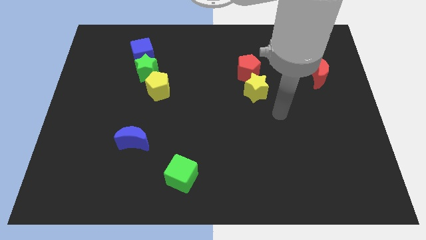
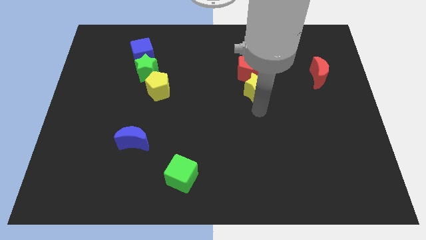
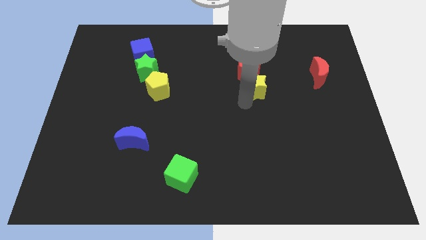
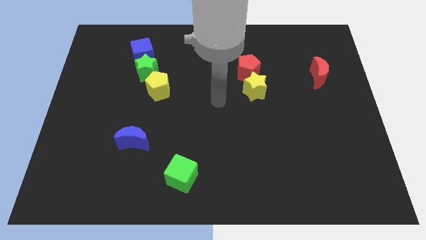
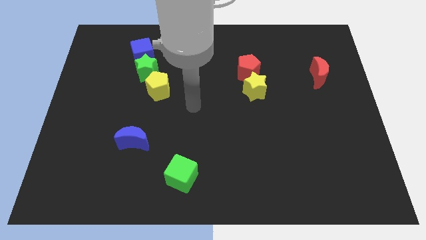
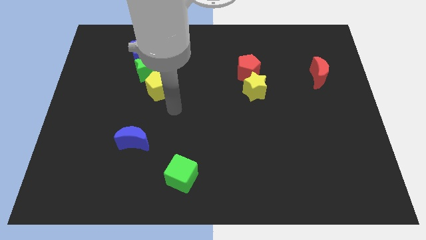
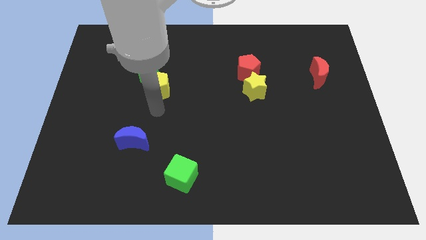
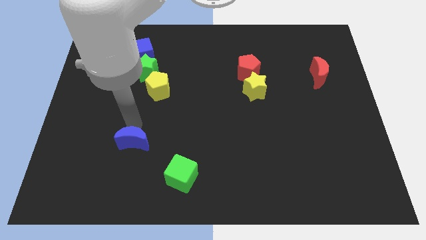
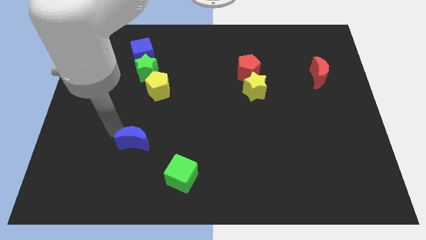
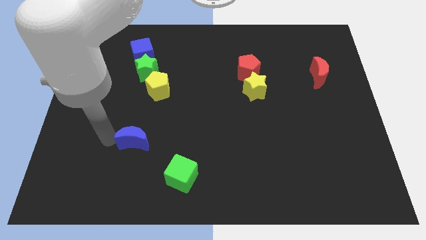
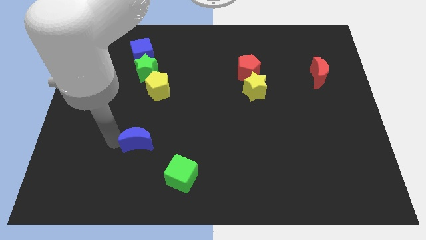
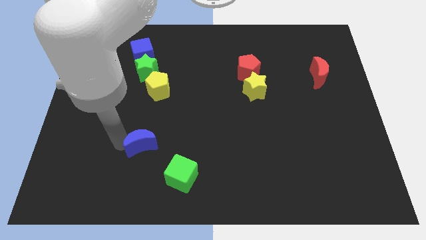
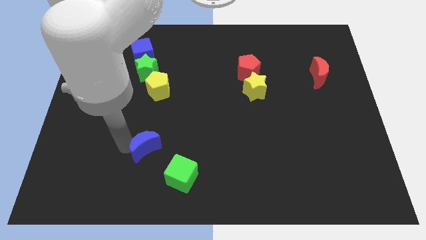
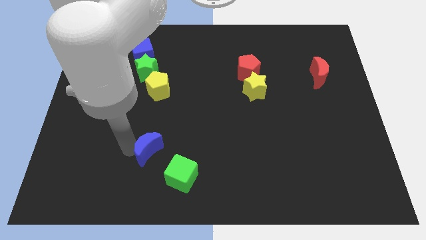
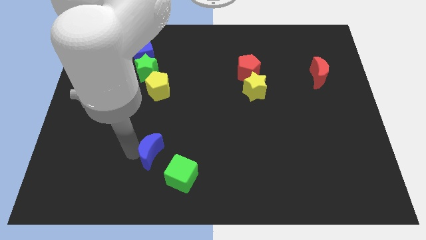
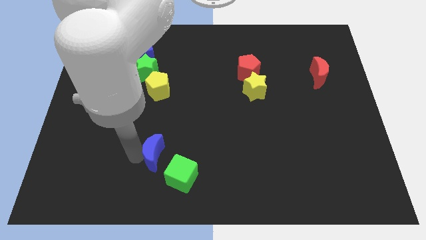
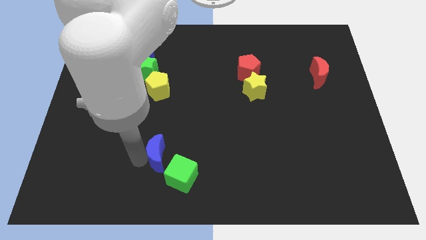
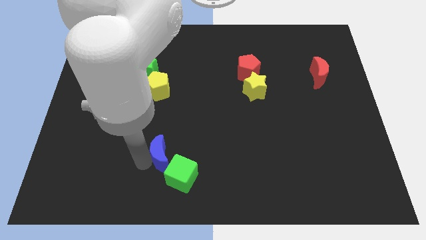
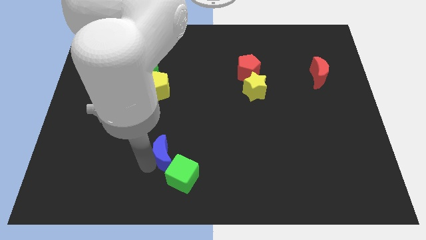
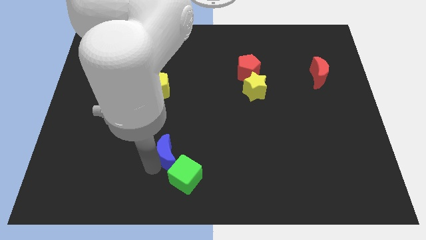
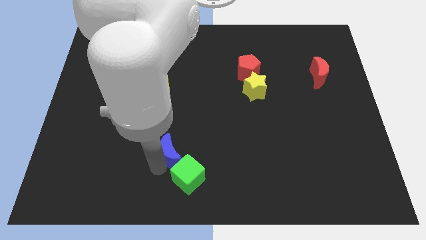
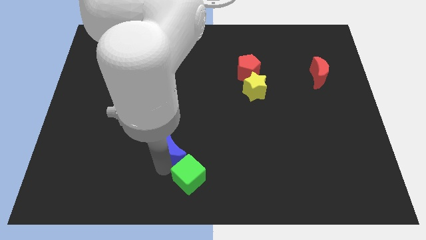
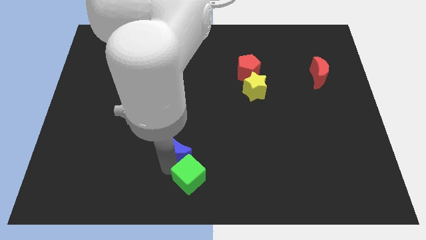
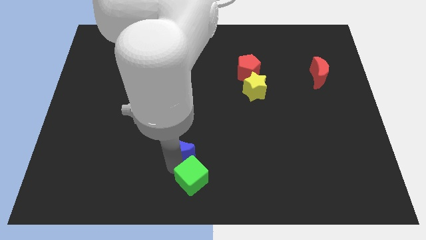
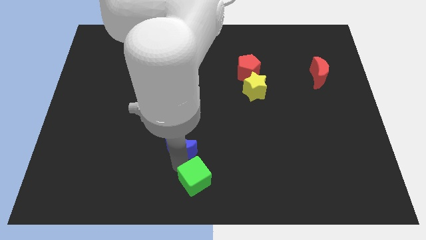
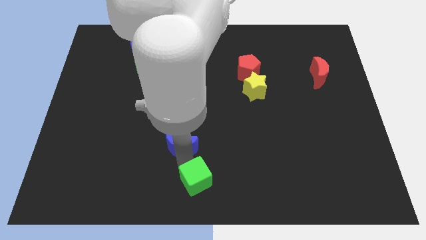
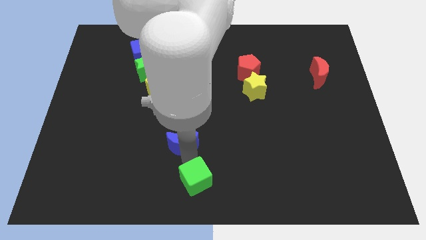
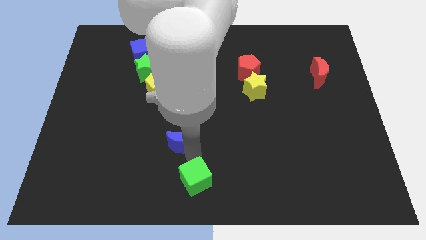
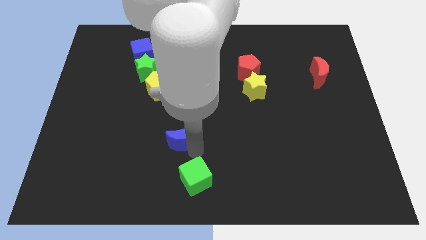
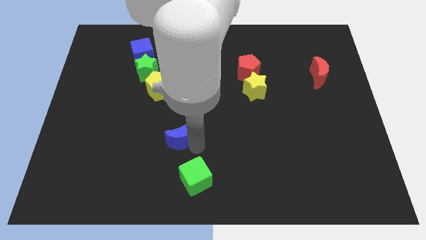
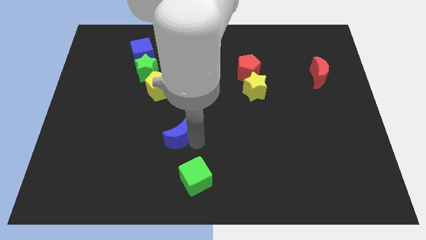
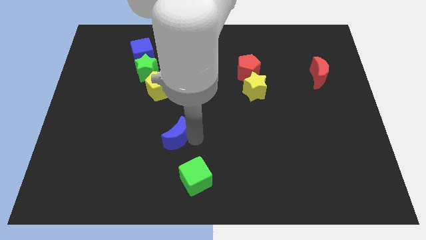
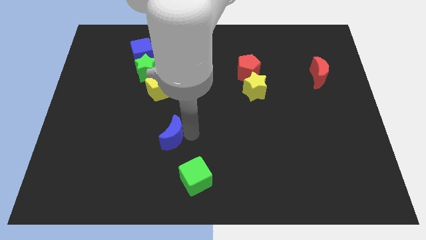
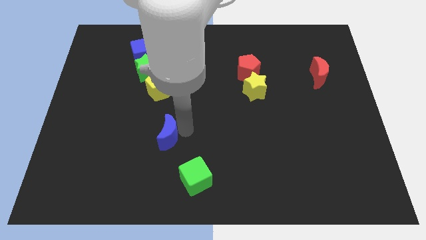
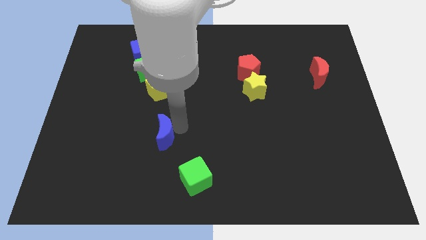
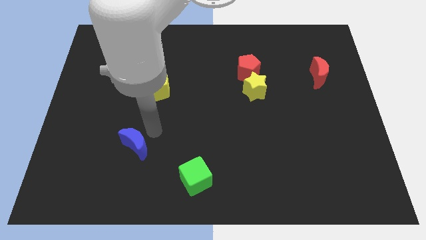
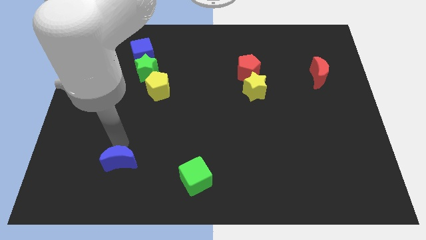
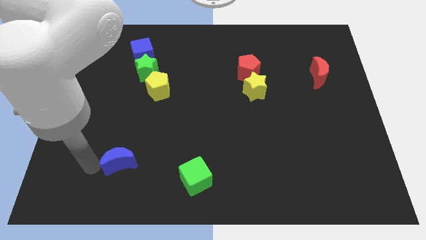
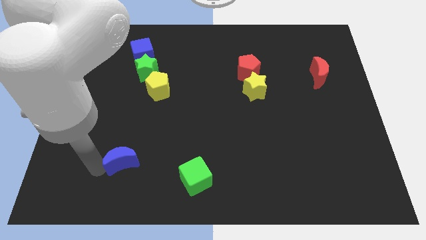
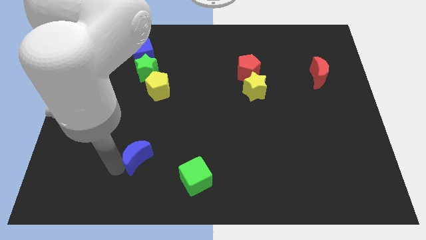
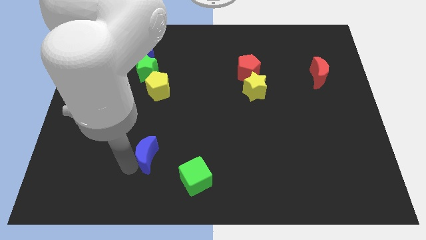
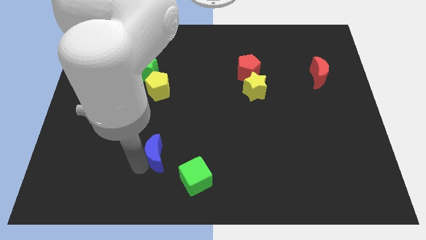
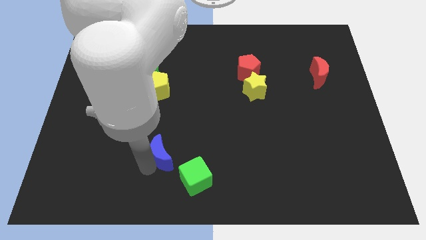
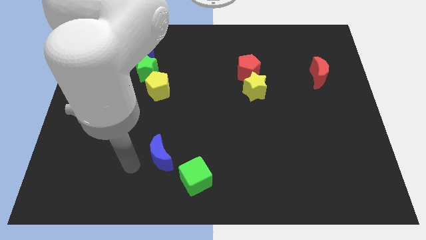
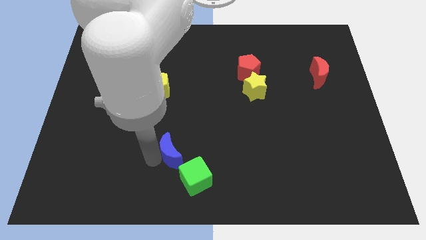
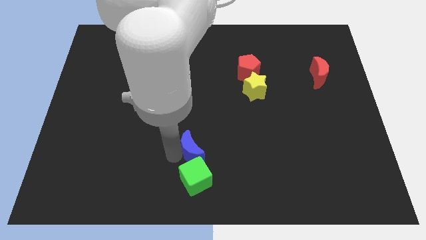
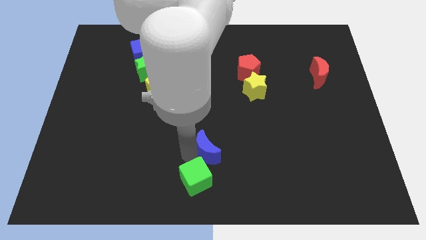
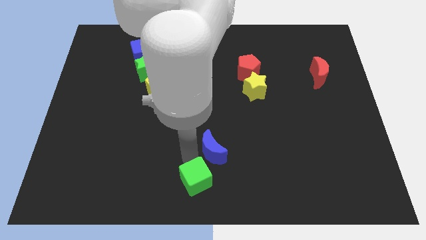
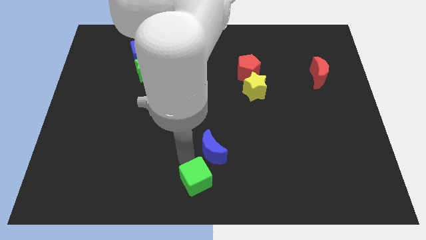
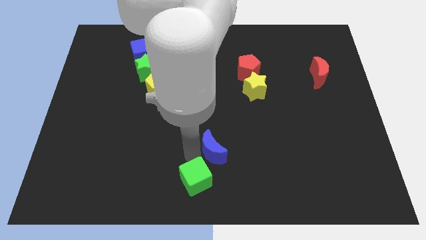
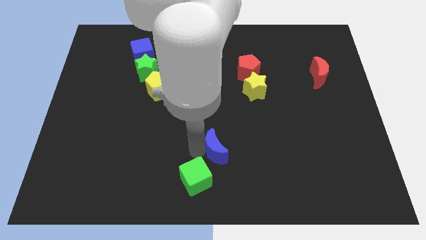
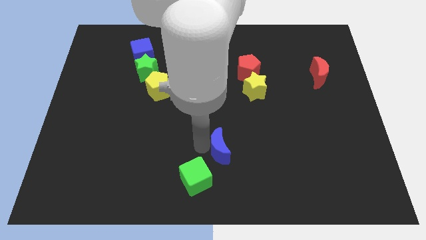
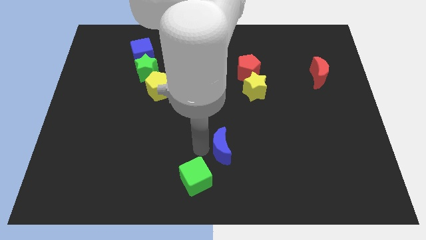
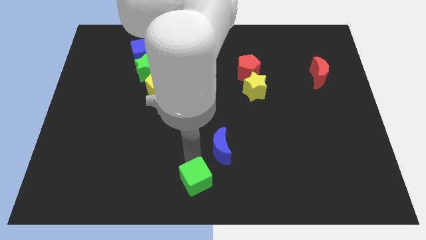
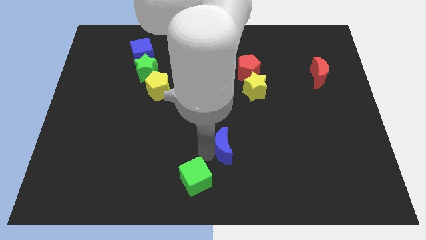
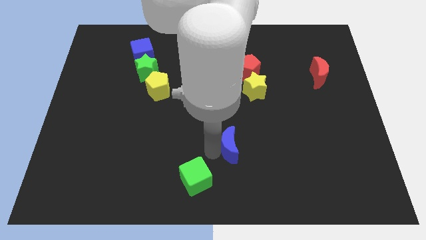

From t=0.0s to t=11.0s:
slide the blue moon right

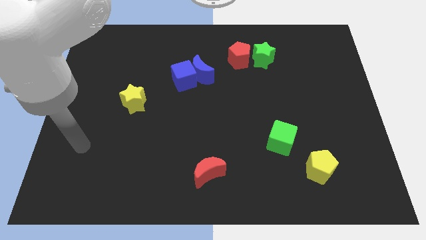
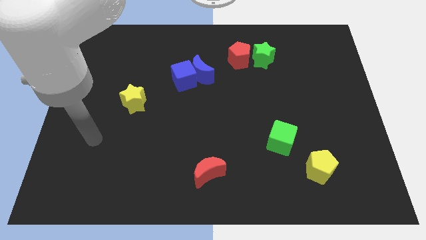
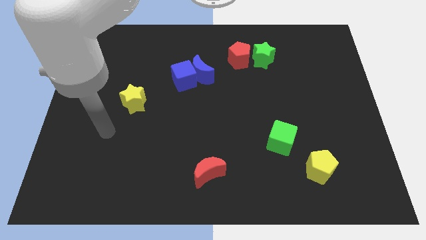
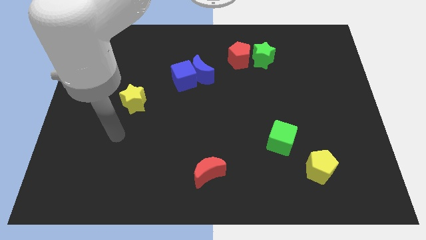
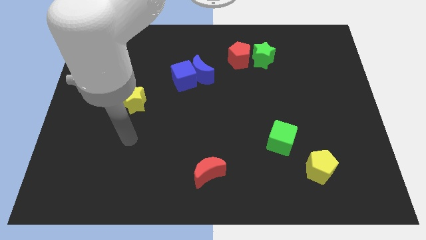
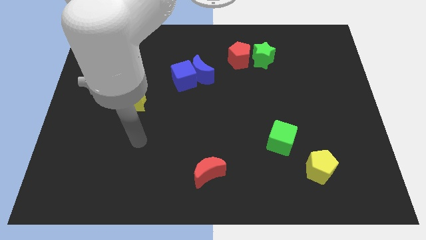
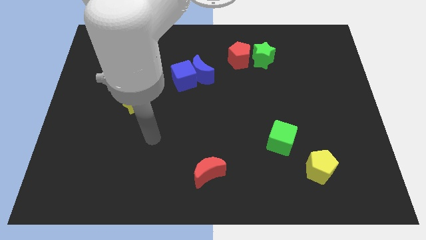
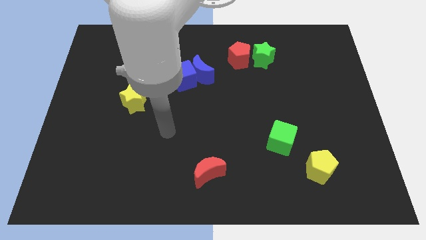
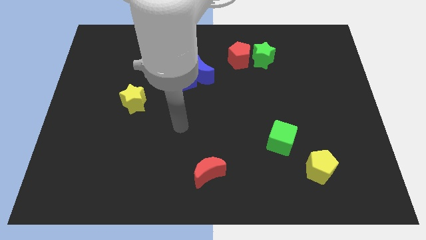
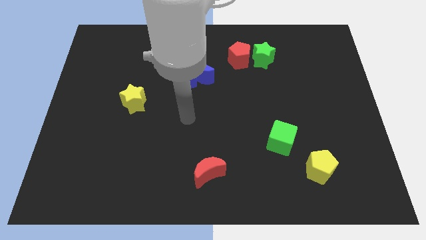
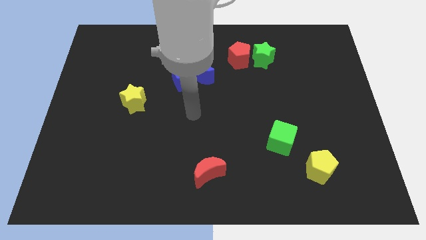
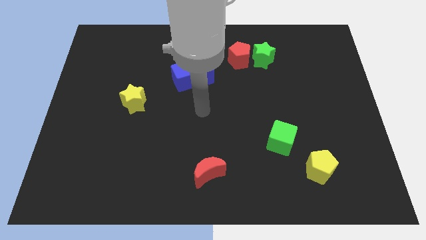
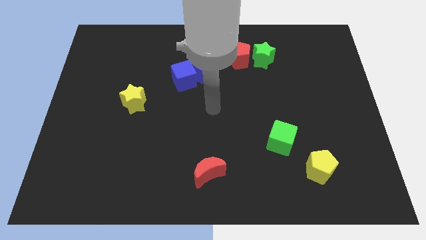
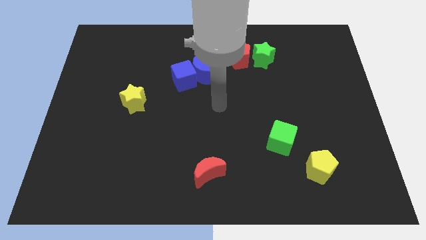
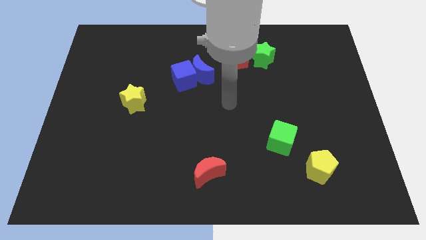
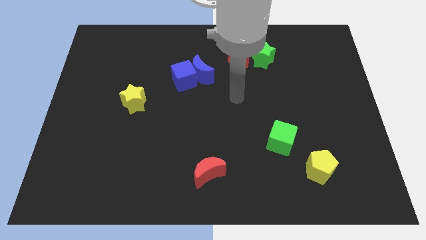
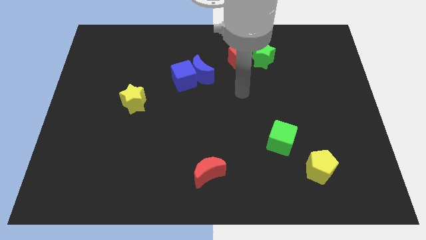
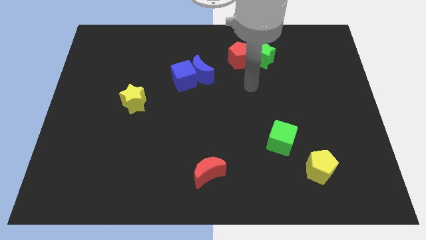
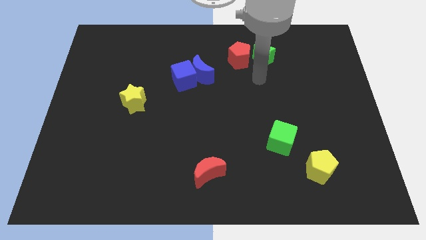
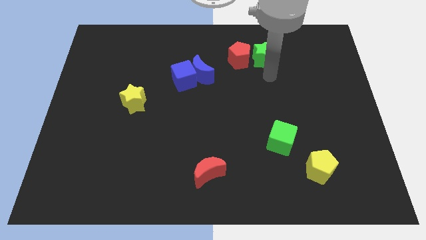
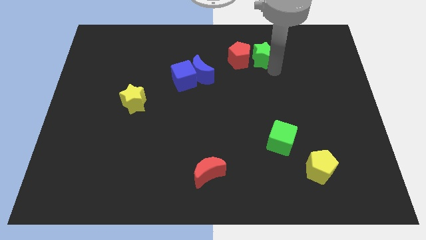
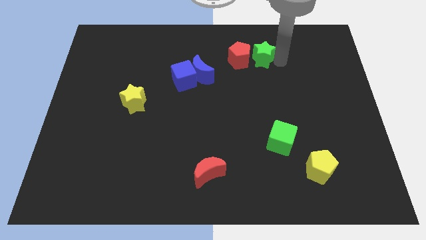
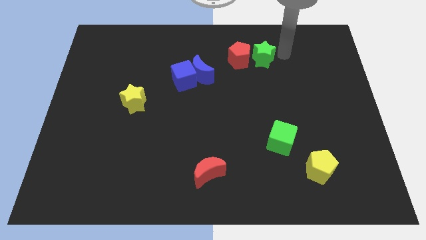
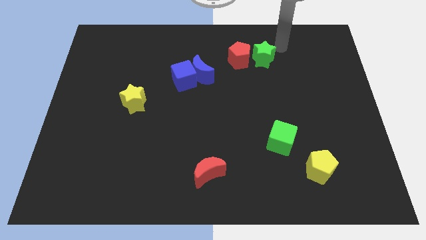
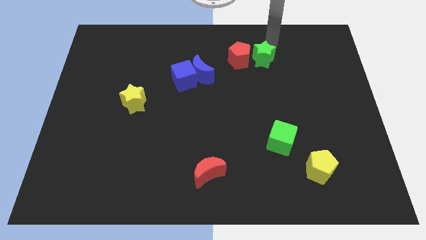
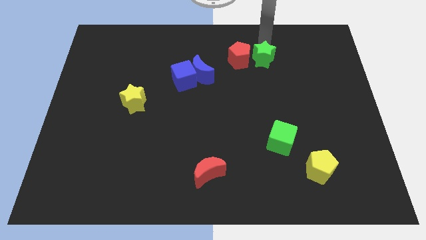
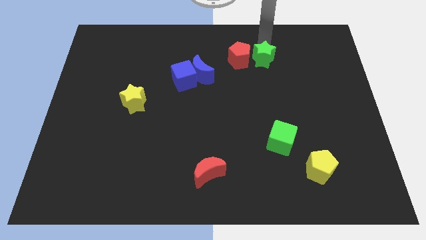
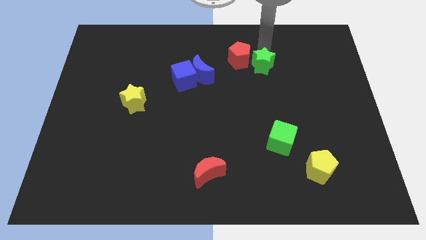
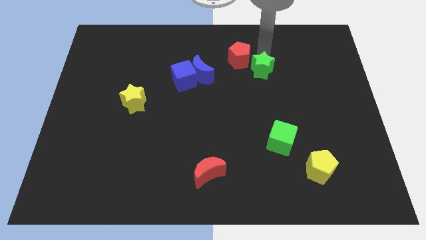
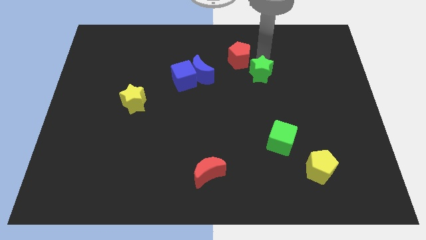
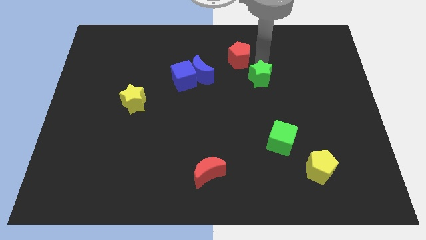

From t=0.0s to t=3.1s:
push the green star a little downwards
